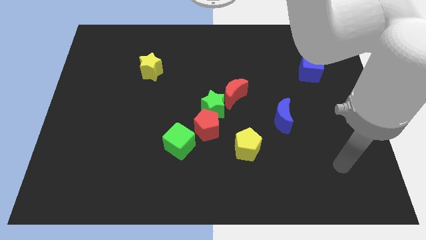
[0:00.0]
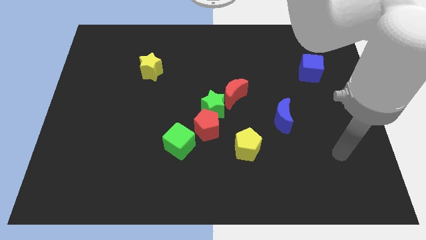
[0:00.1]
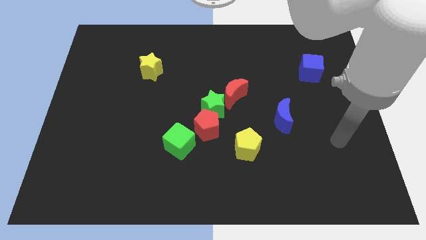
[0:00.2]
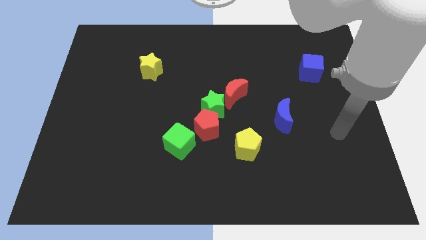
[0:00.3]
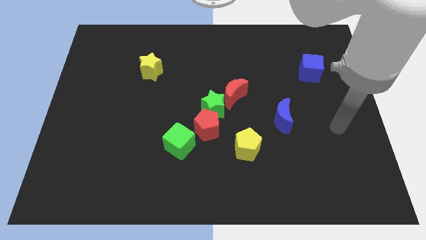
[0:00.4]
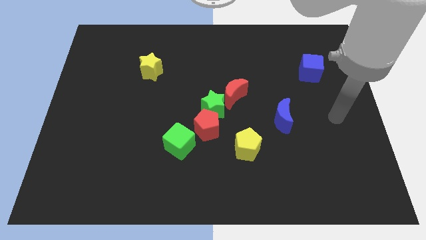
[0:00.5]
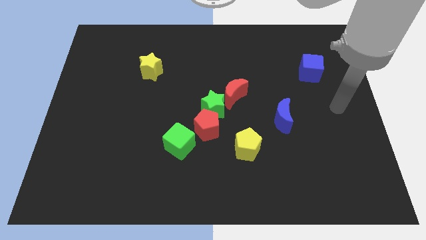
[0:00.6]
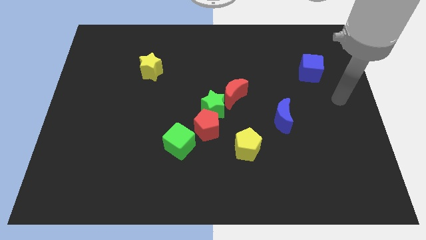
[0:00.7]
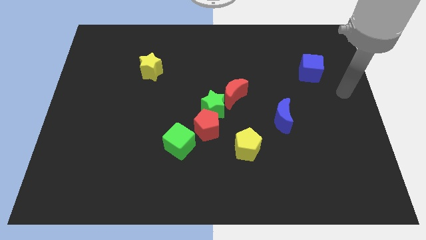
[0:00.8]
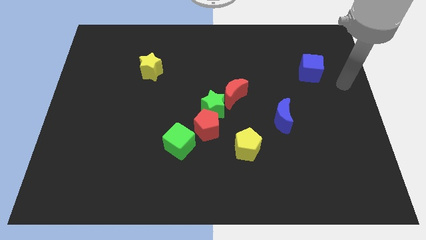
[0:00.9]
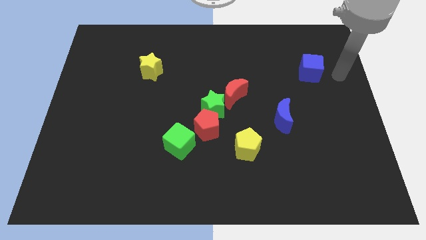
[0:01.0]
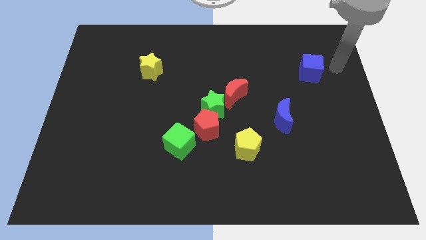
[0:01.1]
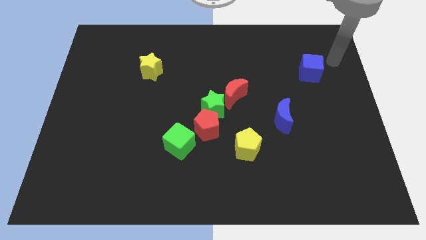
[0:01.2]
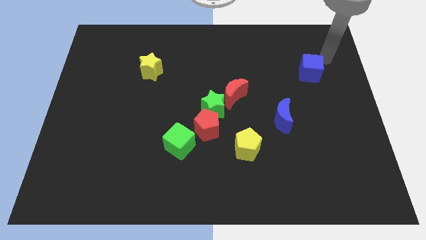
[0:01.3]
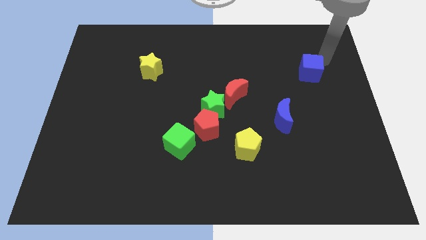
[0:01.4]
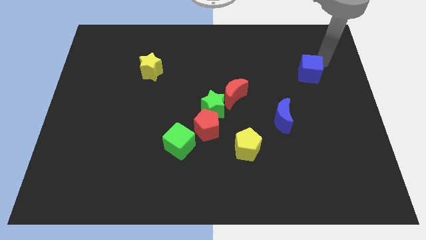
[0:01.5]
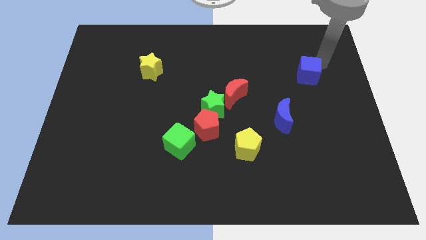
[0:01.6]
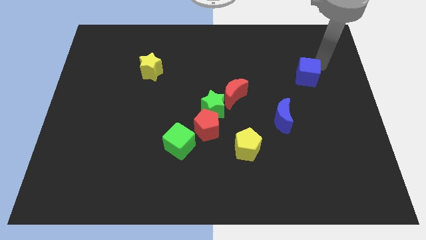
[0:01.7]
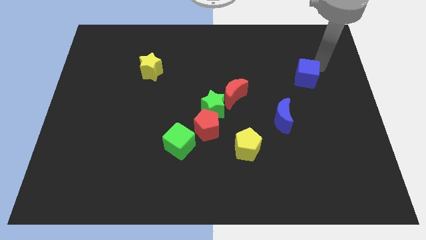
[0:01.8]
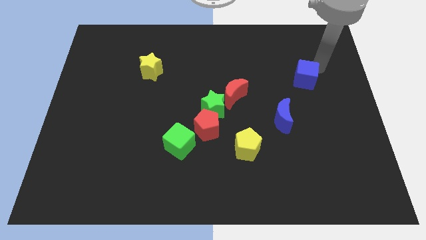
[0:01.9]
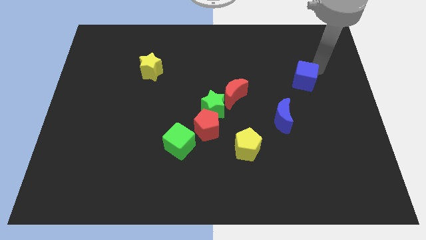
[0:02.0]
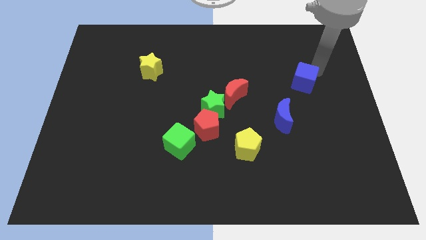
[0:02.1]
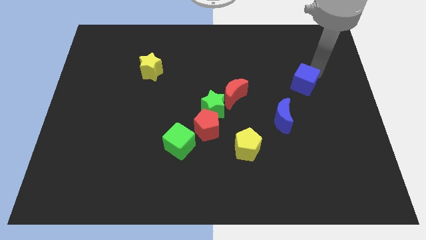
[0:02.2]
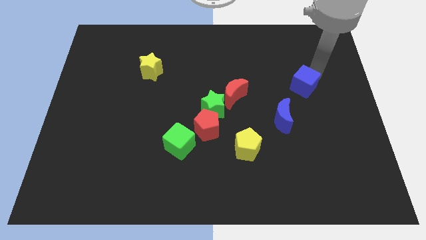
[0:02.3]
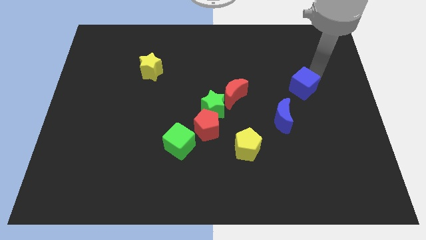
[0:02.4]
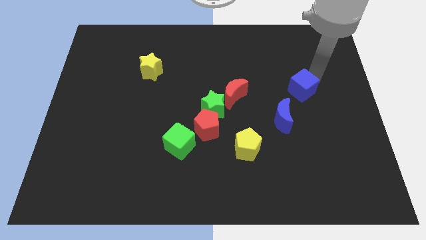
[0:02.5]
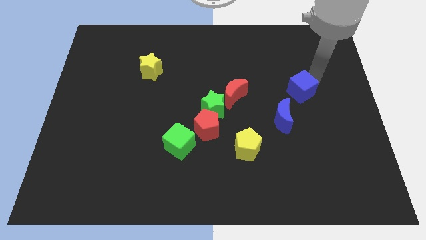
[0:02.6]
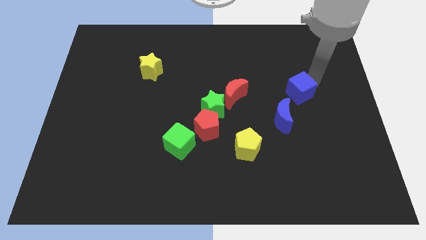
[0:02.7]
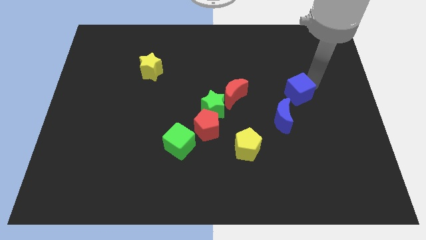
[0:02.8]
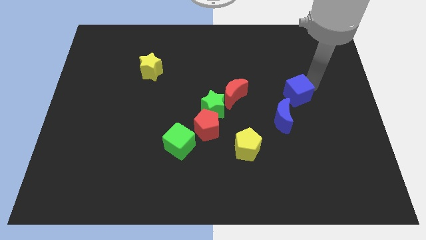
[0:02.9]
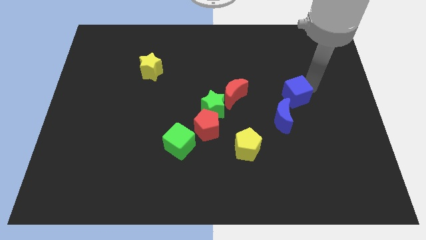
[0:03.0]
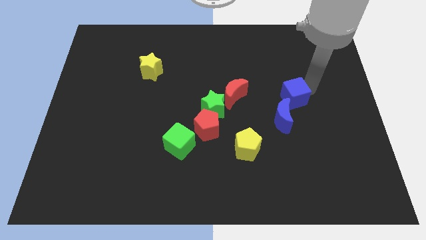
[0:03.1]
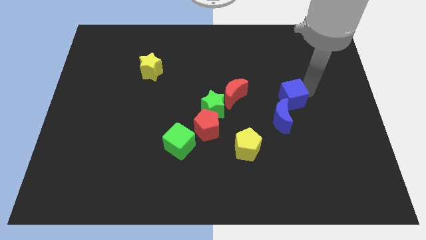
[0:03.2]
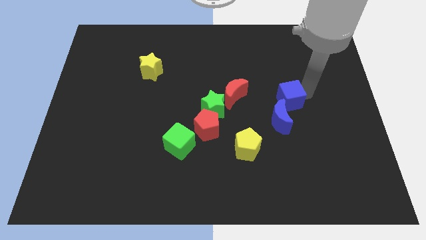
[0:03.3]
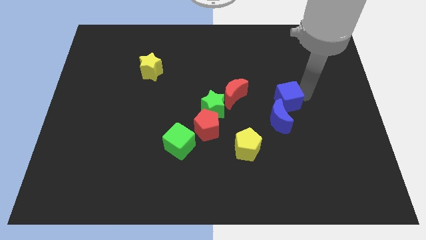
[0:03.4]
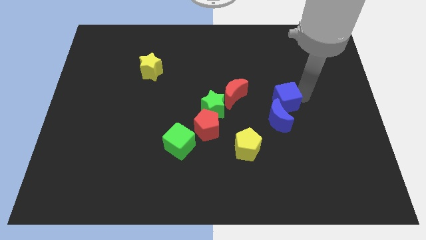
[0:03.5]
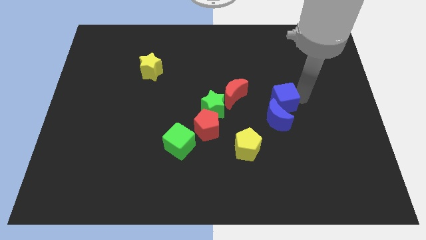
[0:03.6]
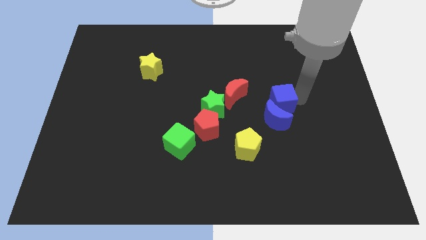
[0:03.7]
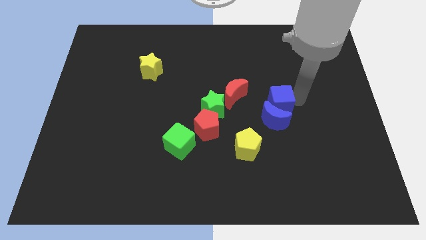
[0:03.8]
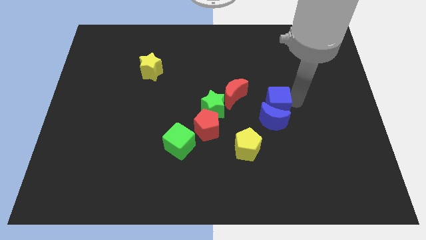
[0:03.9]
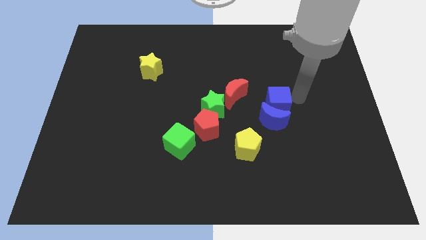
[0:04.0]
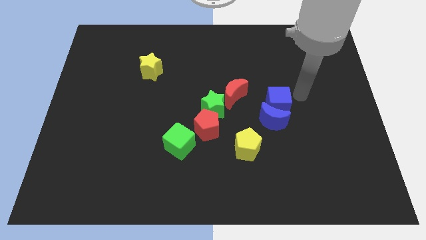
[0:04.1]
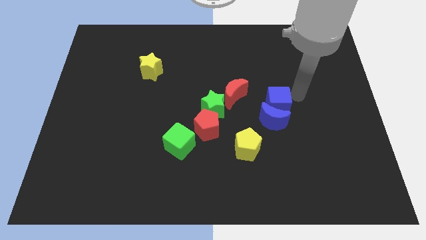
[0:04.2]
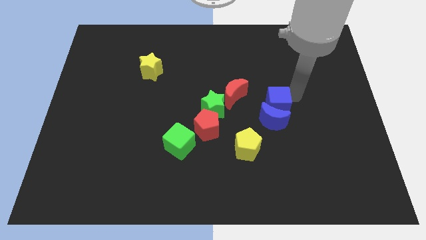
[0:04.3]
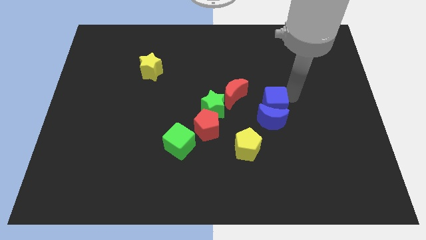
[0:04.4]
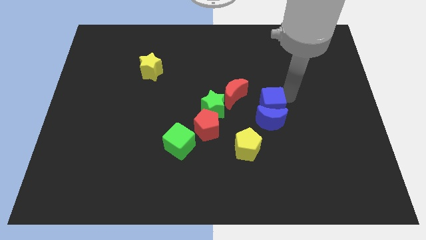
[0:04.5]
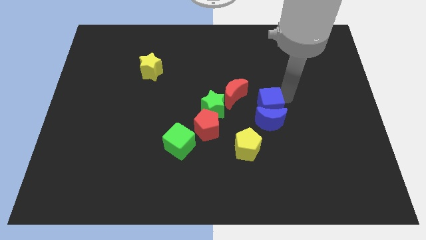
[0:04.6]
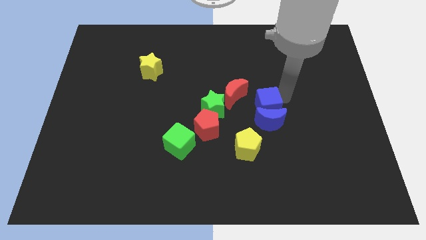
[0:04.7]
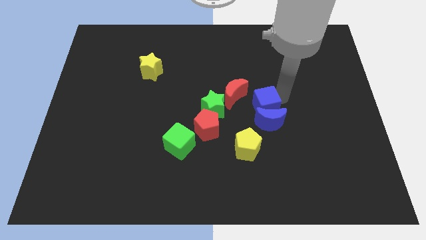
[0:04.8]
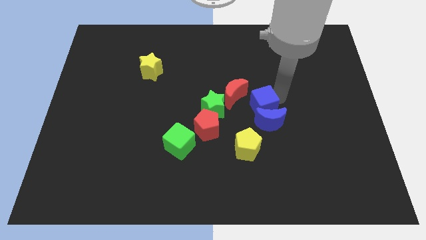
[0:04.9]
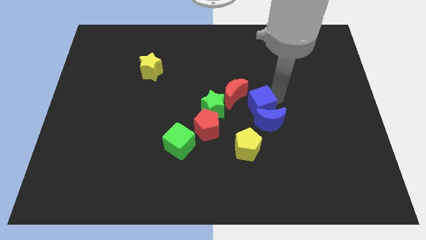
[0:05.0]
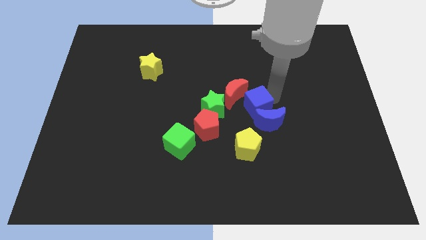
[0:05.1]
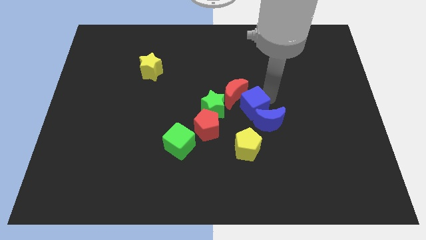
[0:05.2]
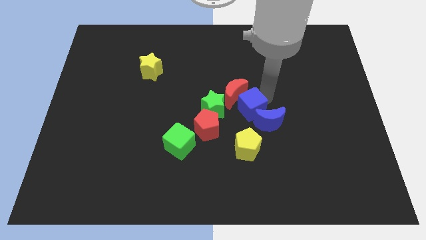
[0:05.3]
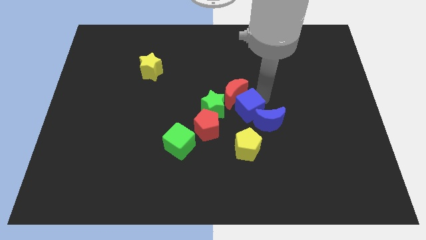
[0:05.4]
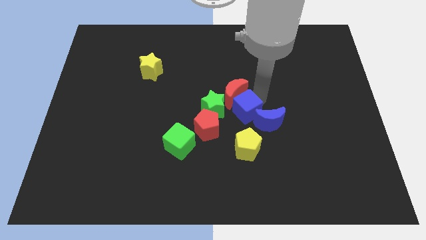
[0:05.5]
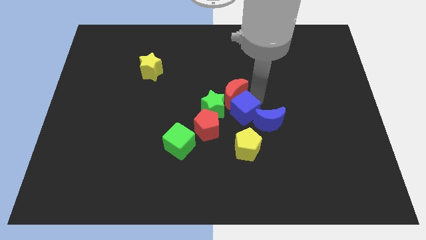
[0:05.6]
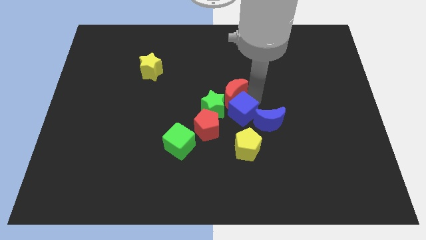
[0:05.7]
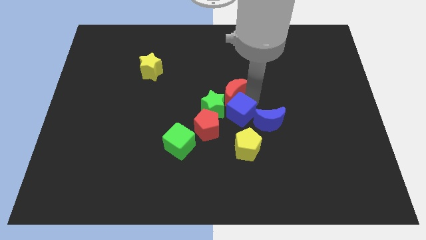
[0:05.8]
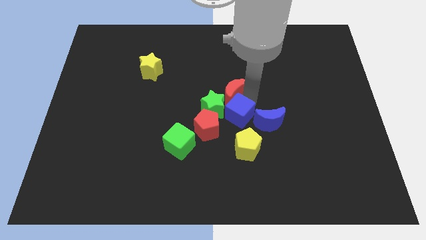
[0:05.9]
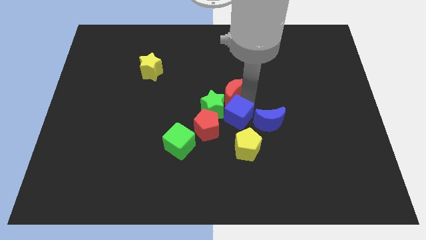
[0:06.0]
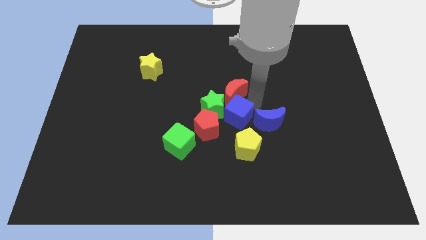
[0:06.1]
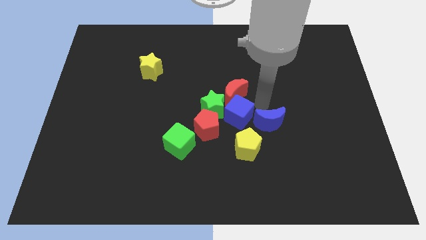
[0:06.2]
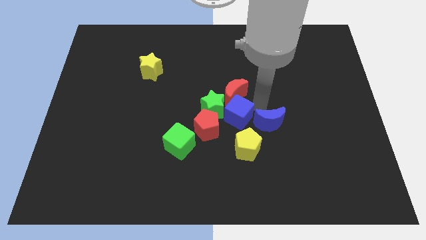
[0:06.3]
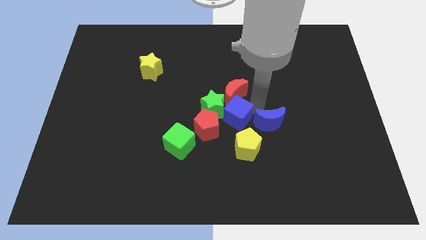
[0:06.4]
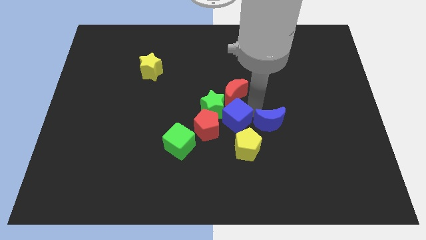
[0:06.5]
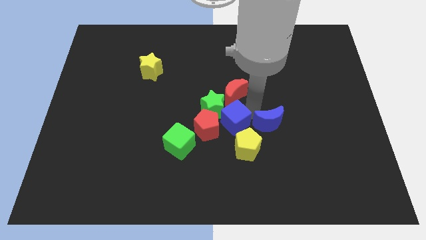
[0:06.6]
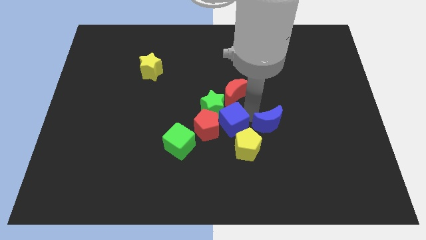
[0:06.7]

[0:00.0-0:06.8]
move the blue cube towards the red pentagon
